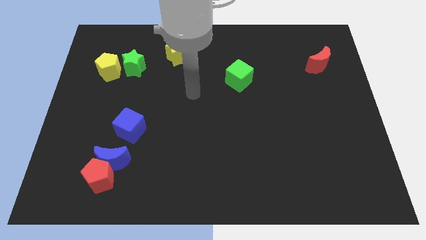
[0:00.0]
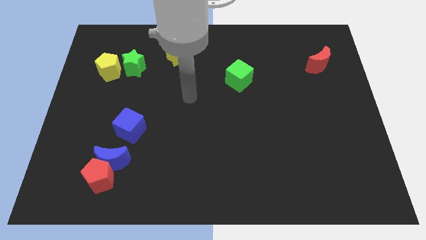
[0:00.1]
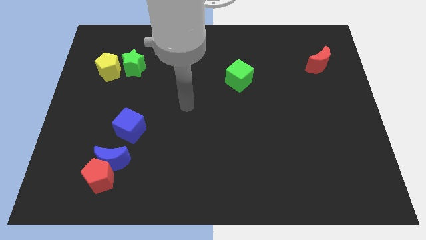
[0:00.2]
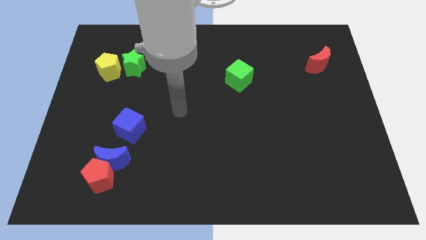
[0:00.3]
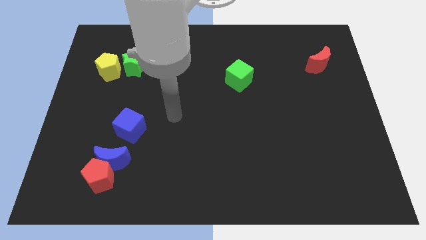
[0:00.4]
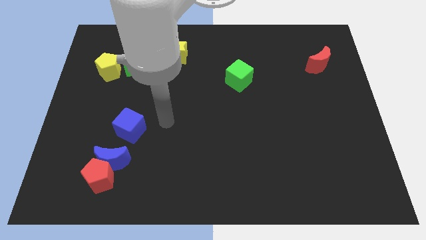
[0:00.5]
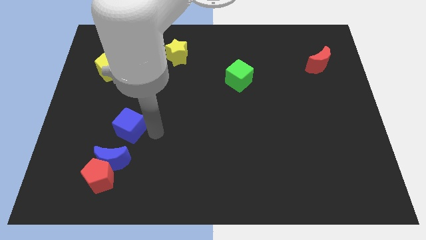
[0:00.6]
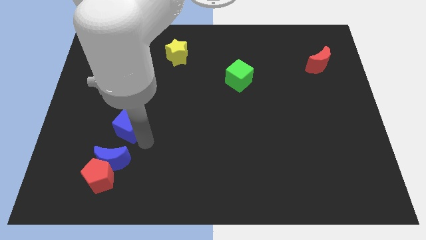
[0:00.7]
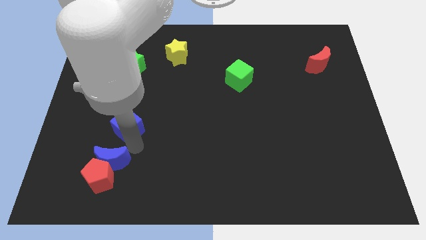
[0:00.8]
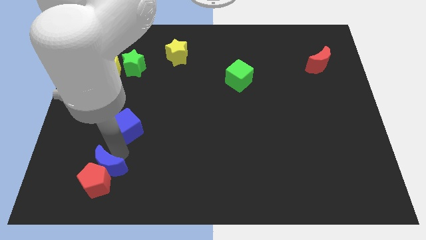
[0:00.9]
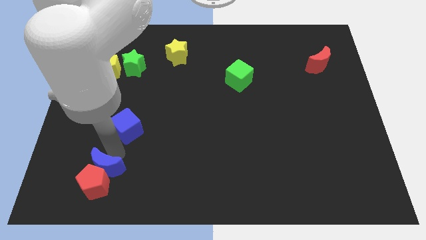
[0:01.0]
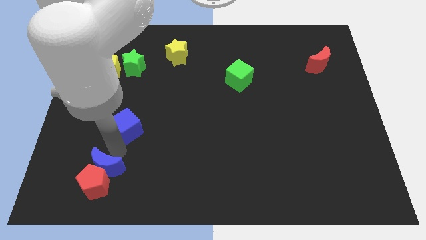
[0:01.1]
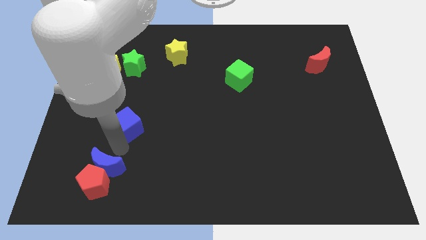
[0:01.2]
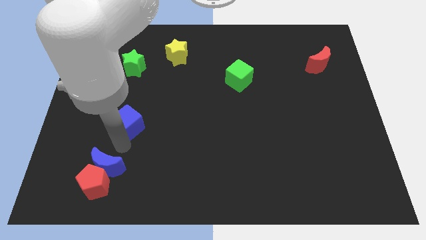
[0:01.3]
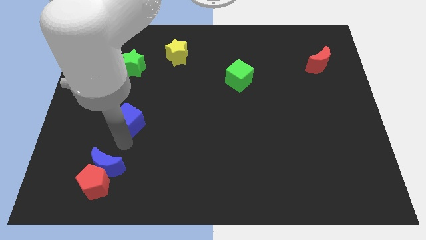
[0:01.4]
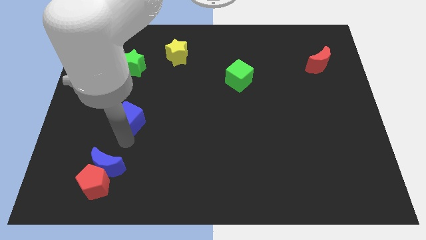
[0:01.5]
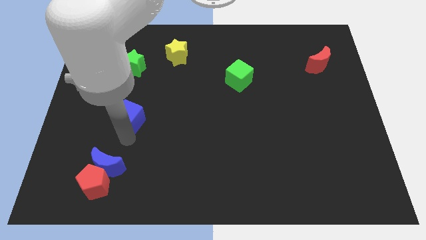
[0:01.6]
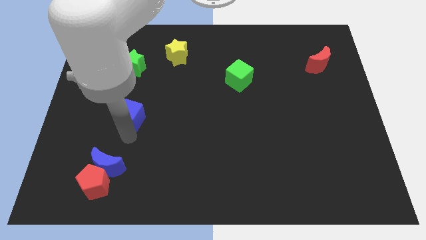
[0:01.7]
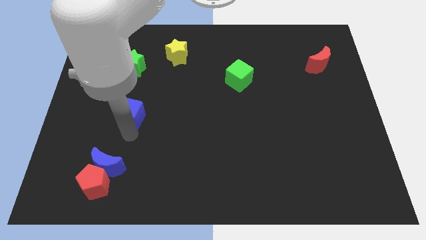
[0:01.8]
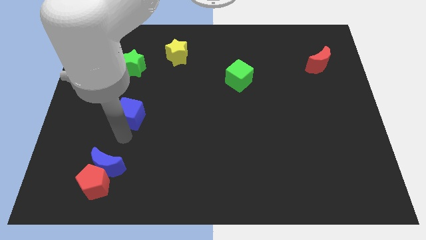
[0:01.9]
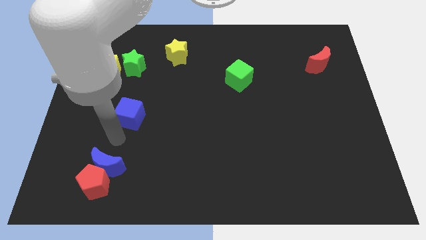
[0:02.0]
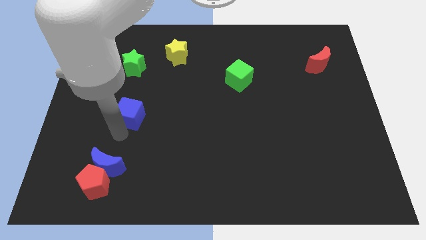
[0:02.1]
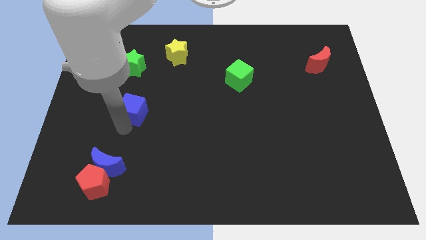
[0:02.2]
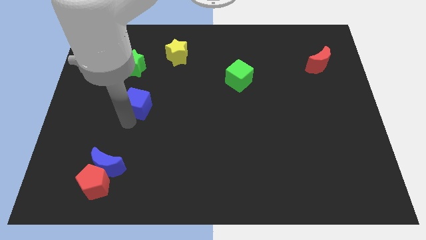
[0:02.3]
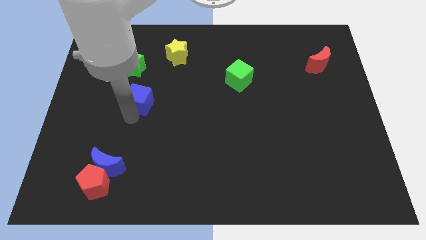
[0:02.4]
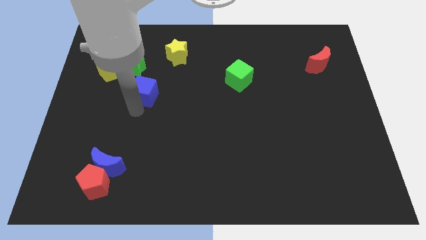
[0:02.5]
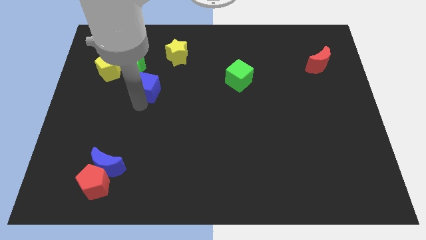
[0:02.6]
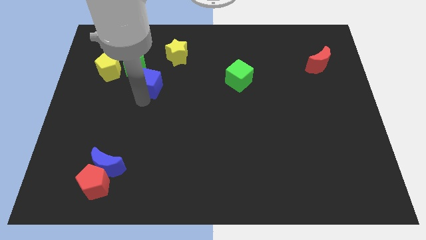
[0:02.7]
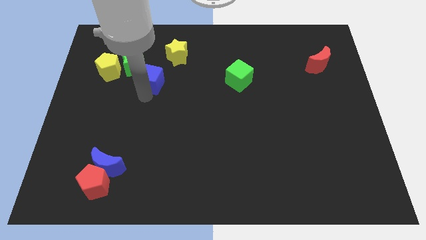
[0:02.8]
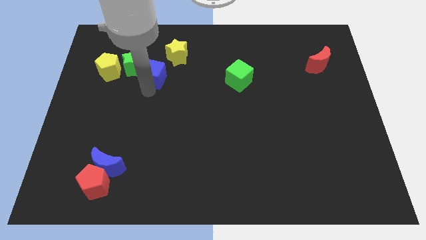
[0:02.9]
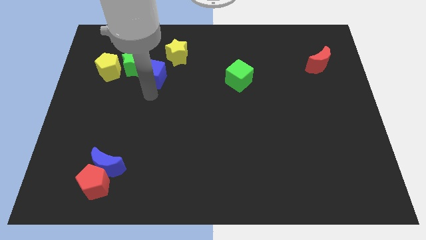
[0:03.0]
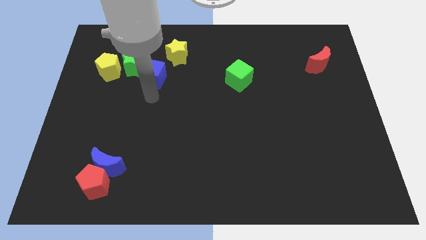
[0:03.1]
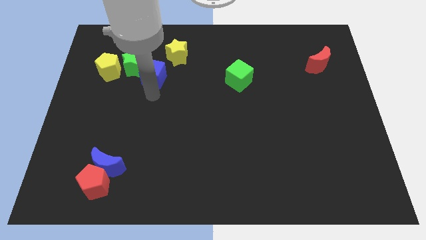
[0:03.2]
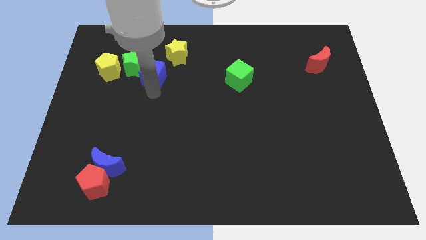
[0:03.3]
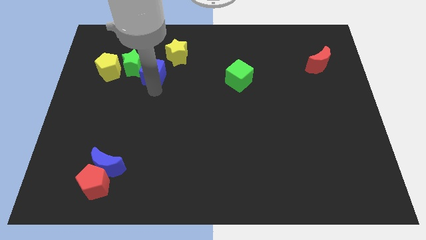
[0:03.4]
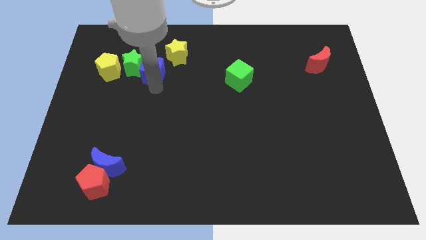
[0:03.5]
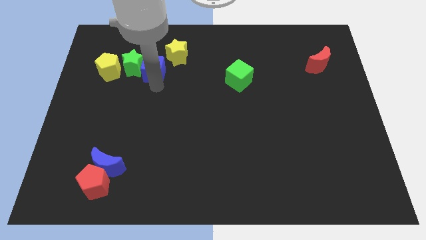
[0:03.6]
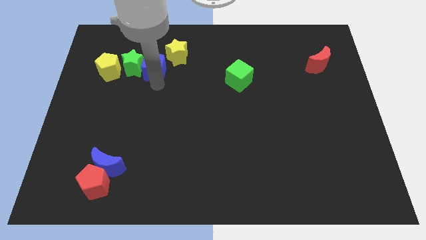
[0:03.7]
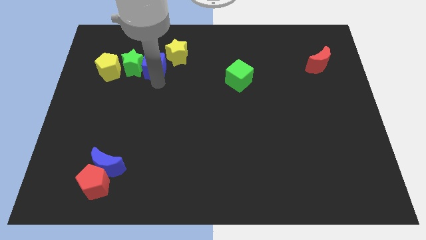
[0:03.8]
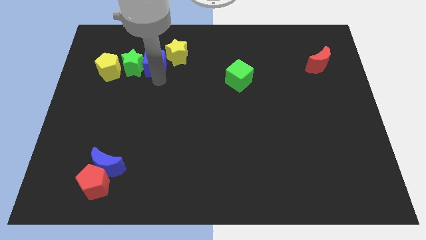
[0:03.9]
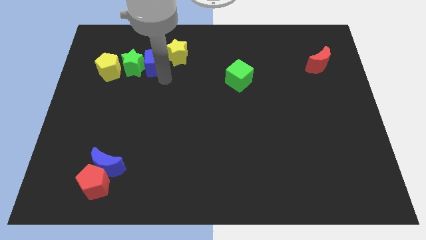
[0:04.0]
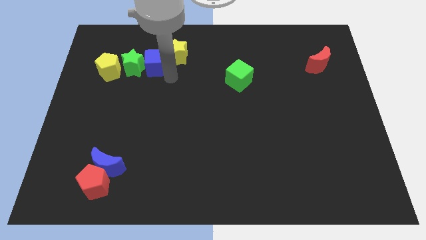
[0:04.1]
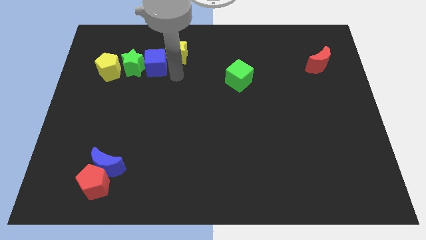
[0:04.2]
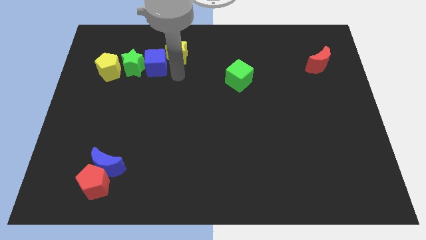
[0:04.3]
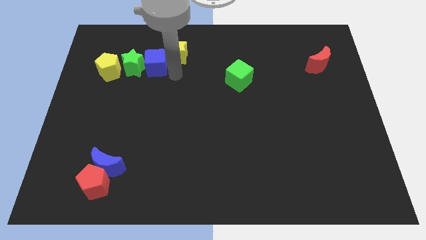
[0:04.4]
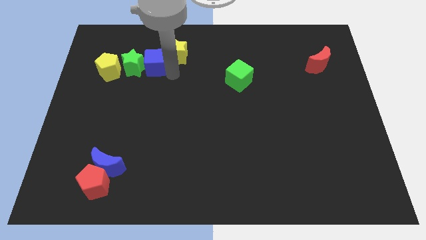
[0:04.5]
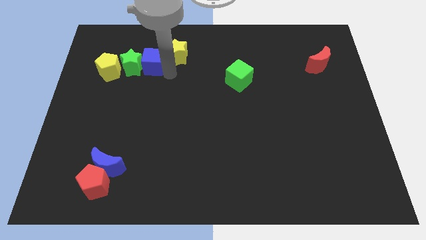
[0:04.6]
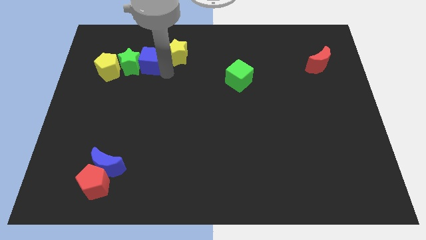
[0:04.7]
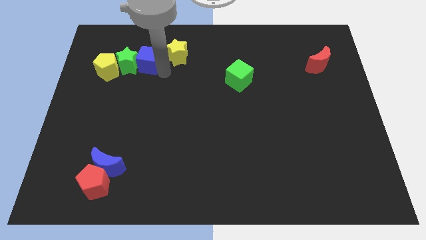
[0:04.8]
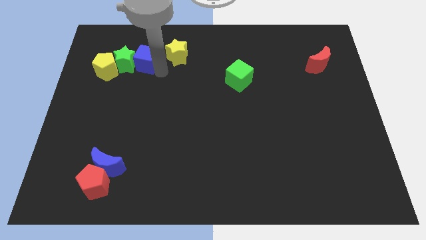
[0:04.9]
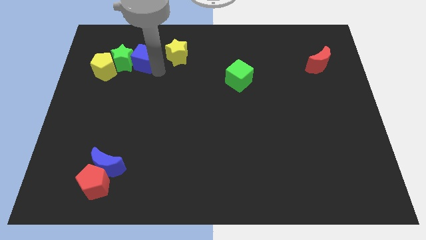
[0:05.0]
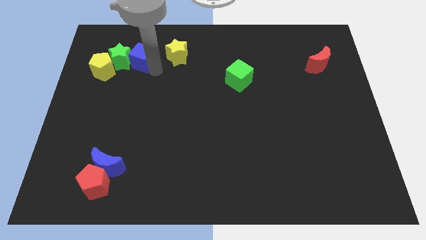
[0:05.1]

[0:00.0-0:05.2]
move the blue cube diagonally up and to the right of the yellow pentagon

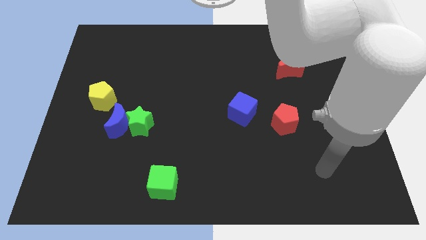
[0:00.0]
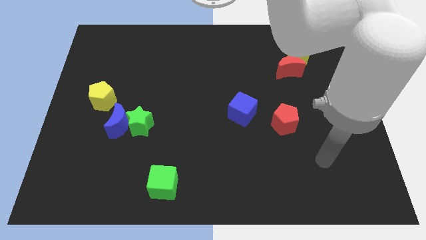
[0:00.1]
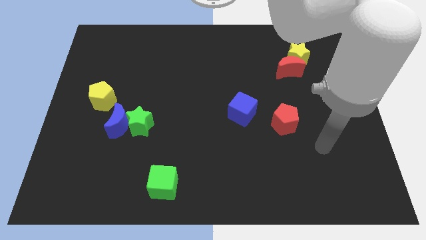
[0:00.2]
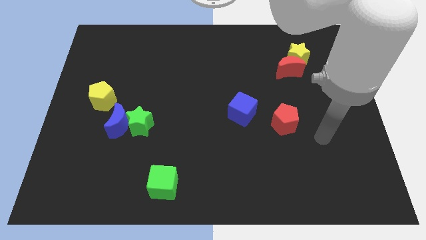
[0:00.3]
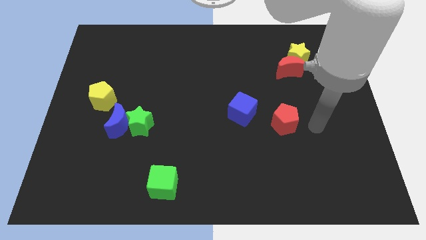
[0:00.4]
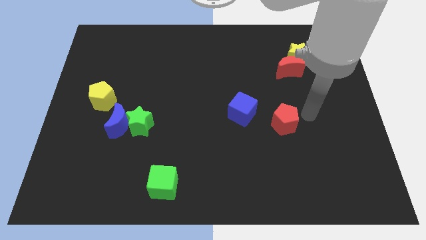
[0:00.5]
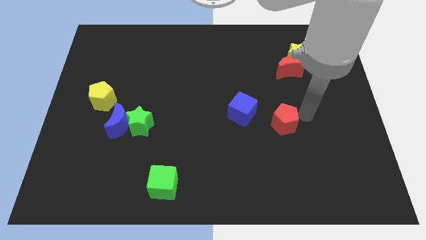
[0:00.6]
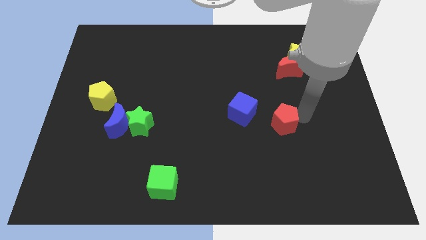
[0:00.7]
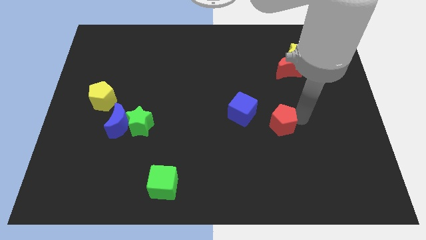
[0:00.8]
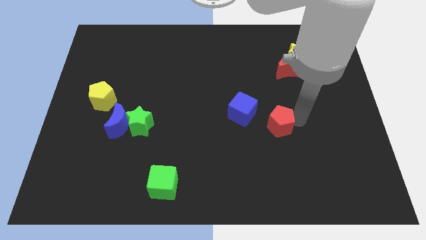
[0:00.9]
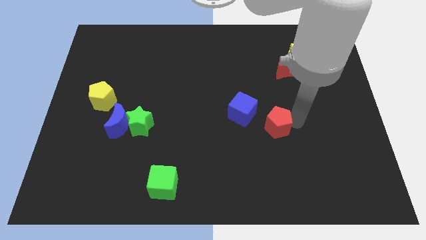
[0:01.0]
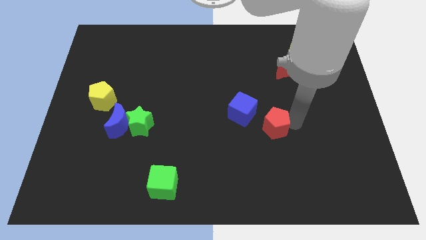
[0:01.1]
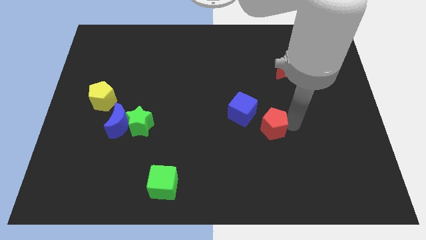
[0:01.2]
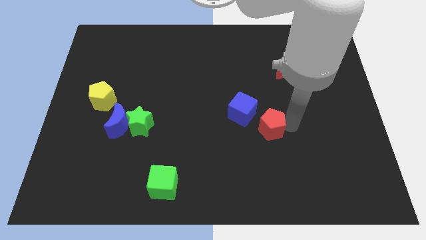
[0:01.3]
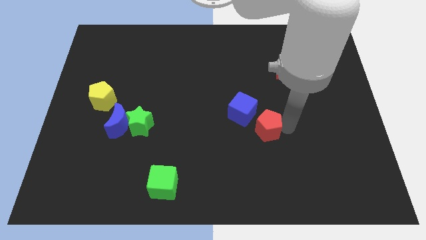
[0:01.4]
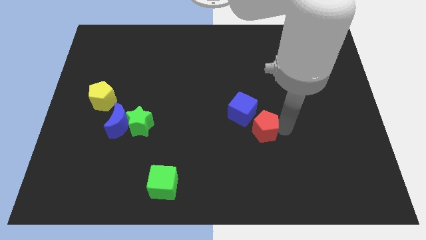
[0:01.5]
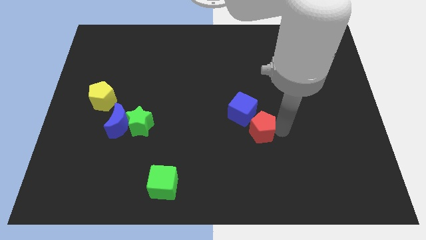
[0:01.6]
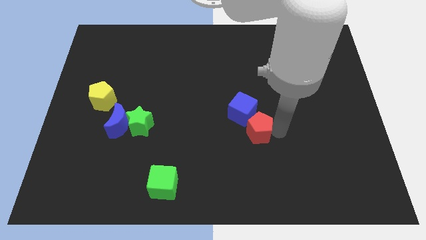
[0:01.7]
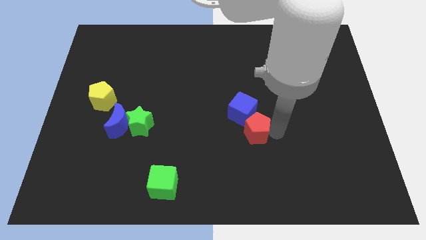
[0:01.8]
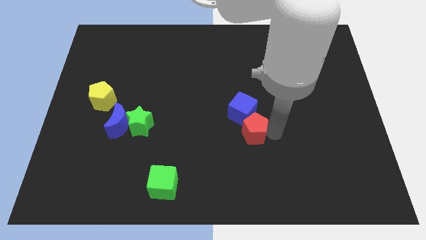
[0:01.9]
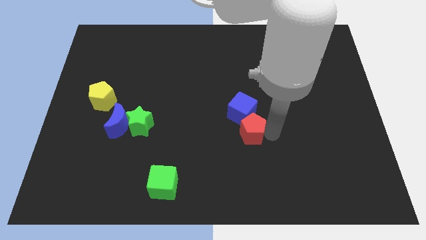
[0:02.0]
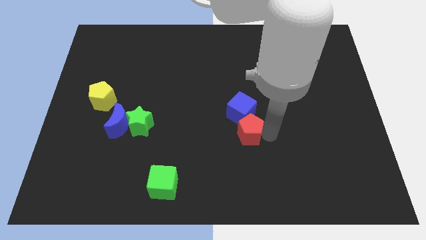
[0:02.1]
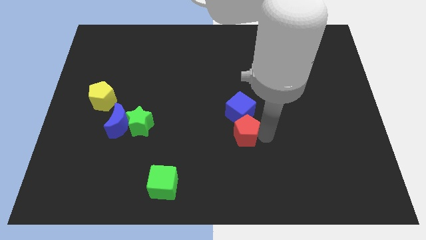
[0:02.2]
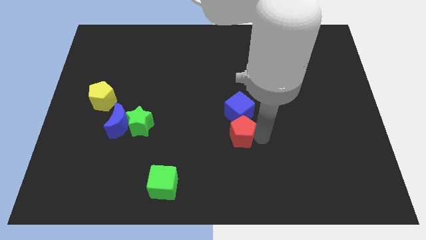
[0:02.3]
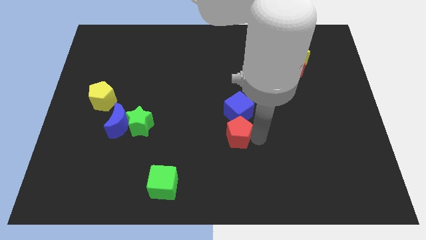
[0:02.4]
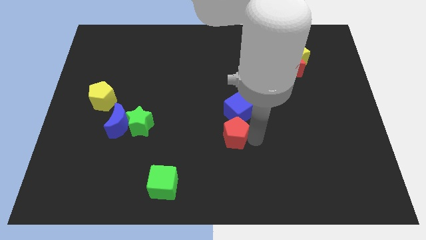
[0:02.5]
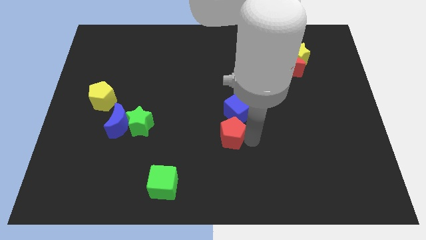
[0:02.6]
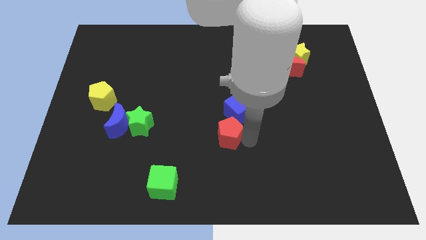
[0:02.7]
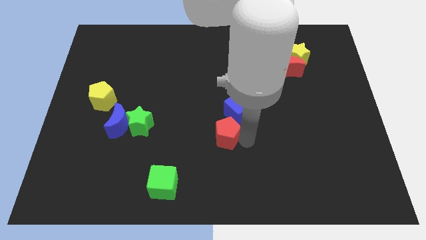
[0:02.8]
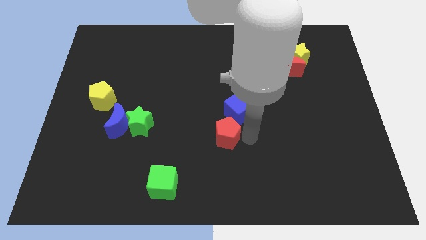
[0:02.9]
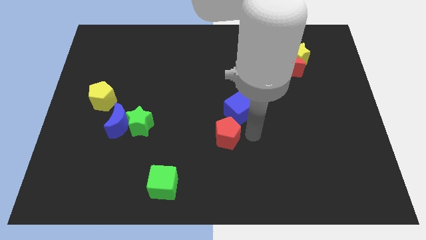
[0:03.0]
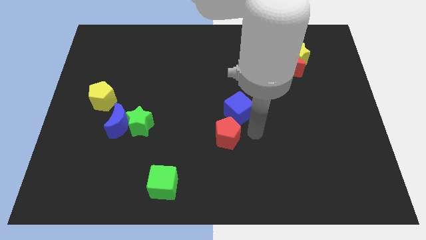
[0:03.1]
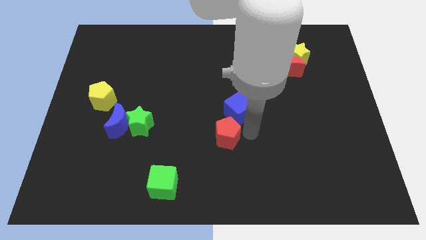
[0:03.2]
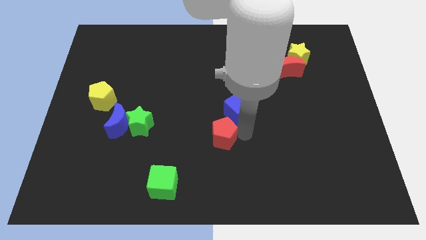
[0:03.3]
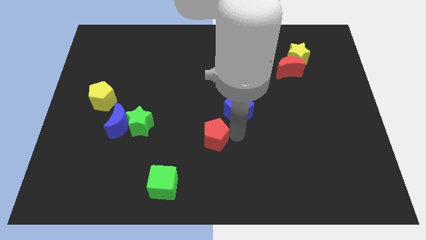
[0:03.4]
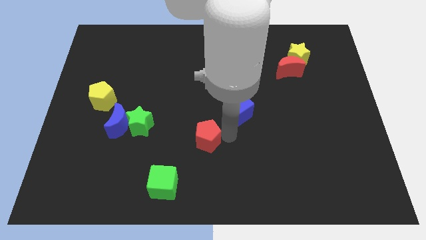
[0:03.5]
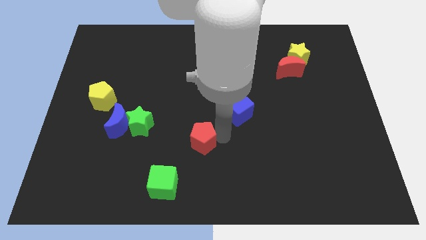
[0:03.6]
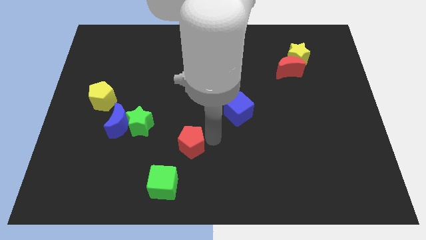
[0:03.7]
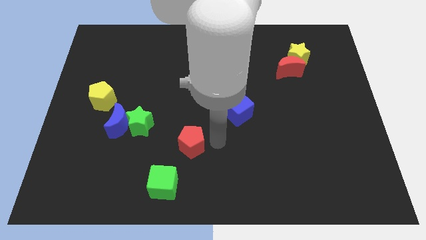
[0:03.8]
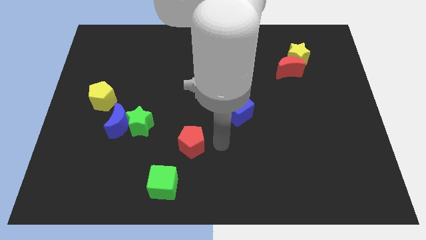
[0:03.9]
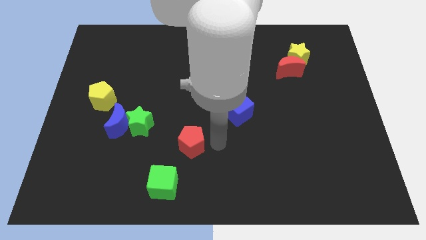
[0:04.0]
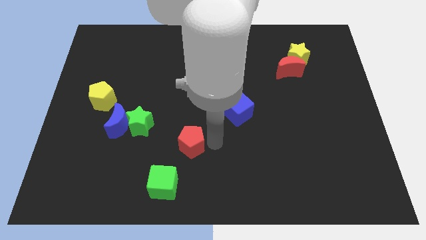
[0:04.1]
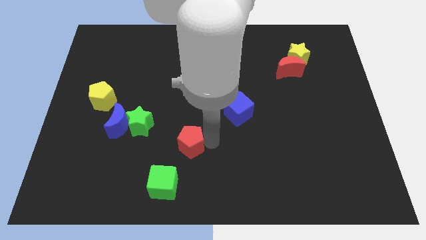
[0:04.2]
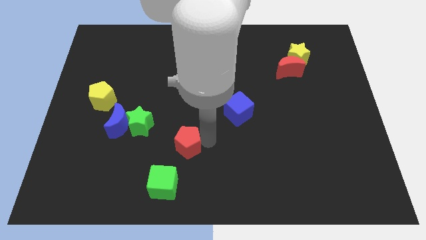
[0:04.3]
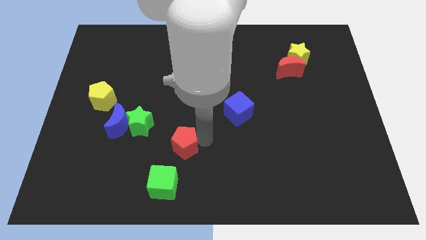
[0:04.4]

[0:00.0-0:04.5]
move the red pentagon to the bottom right side of the green star
